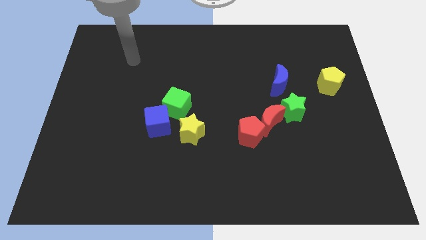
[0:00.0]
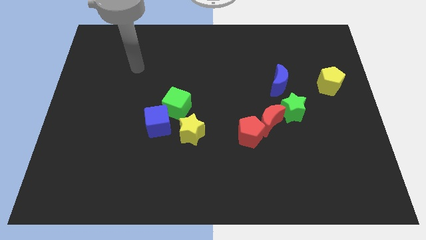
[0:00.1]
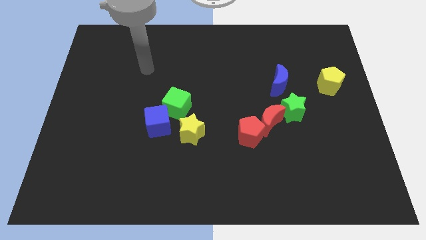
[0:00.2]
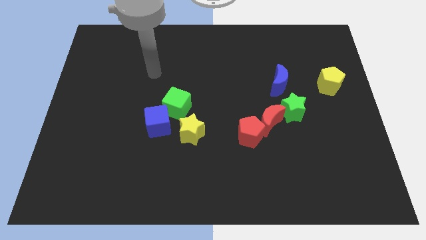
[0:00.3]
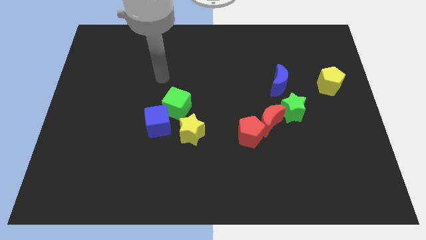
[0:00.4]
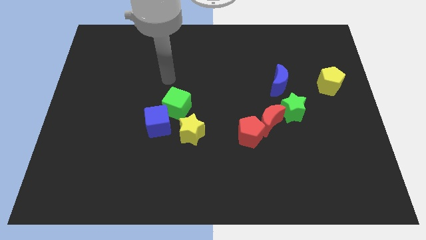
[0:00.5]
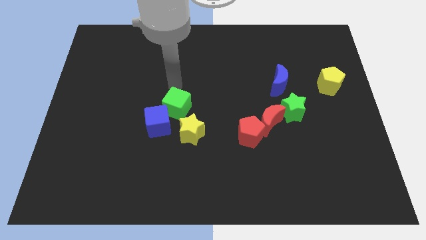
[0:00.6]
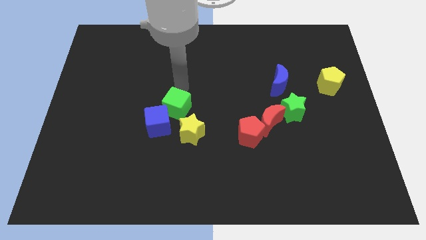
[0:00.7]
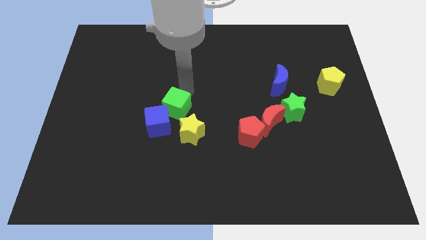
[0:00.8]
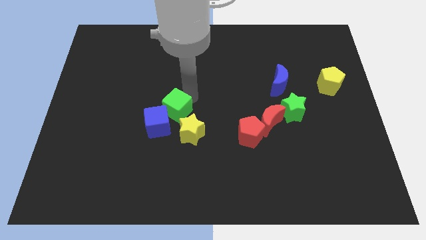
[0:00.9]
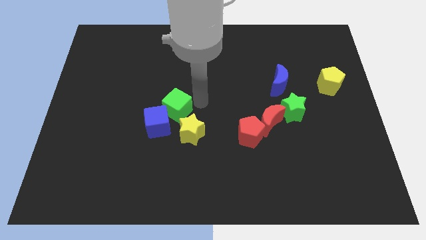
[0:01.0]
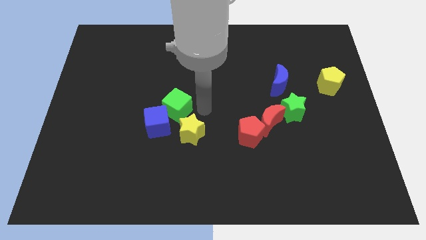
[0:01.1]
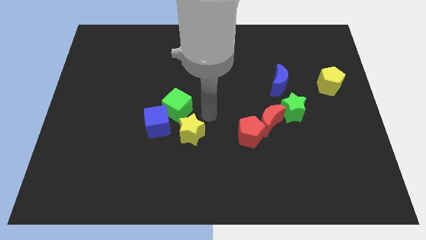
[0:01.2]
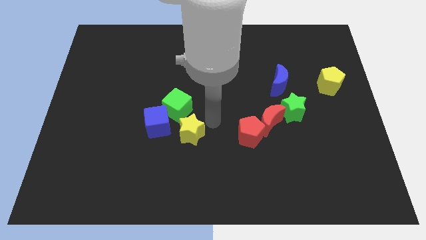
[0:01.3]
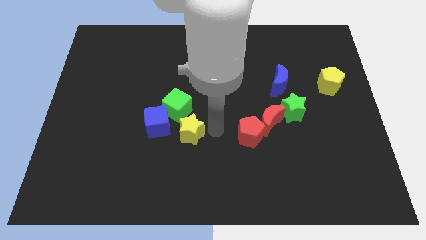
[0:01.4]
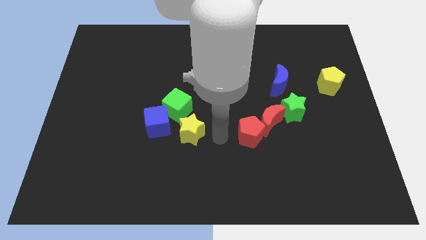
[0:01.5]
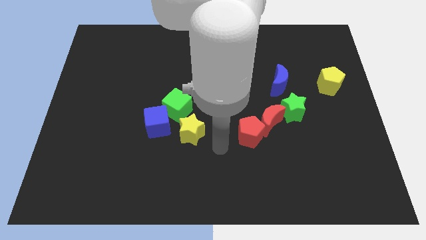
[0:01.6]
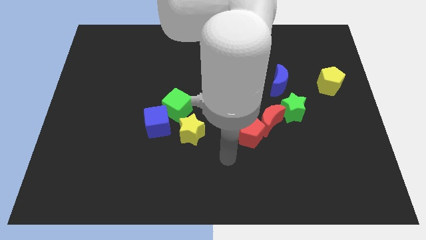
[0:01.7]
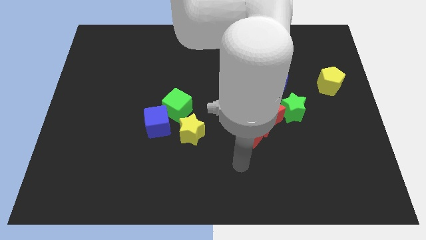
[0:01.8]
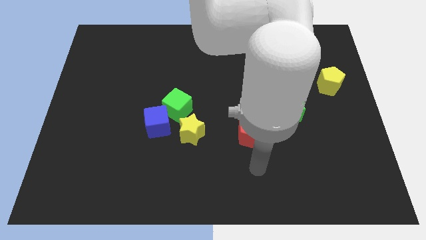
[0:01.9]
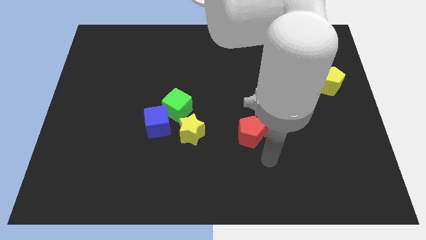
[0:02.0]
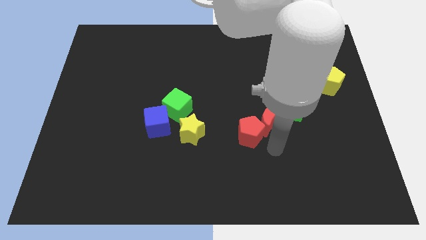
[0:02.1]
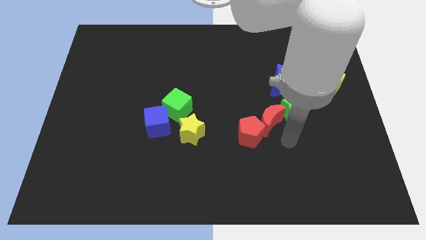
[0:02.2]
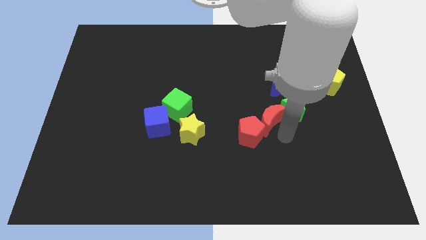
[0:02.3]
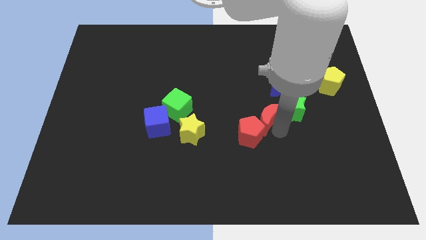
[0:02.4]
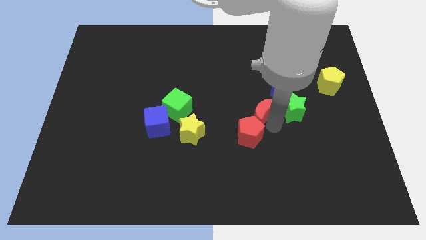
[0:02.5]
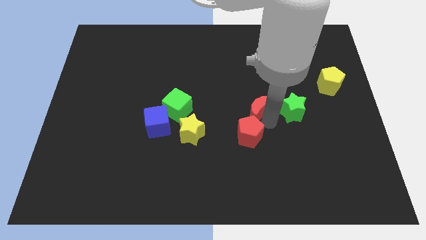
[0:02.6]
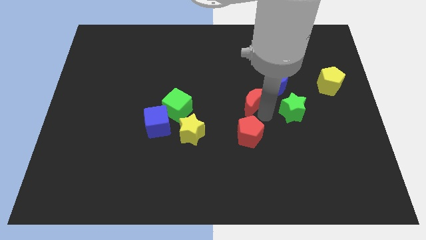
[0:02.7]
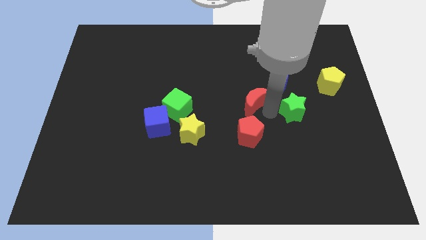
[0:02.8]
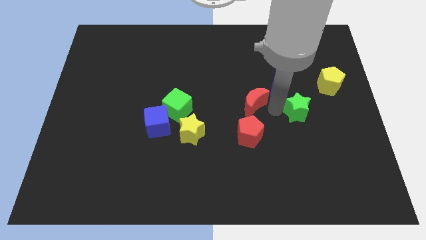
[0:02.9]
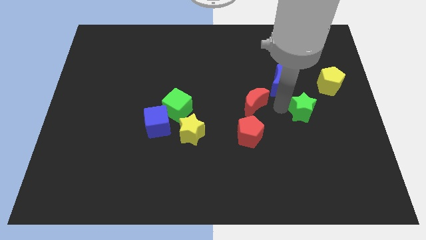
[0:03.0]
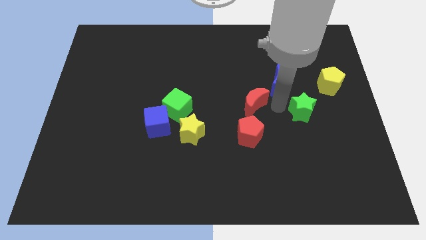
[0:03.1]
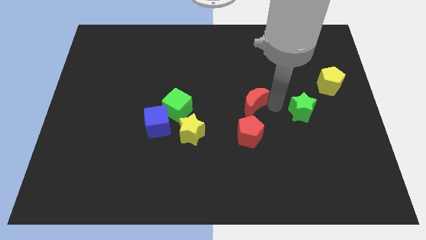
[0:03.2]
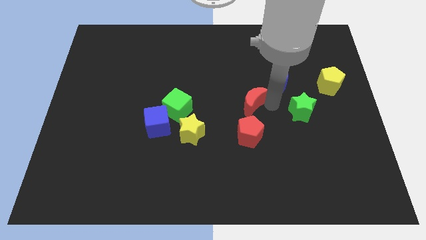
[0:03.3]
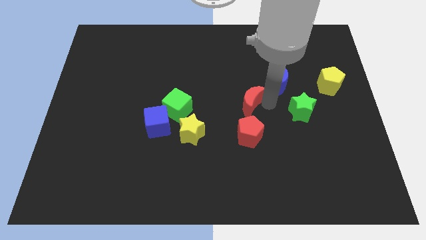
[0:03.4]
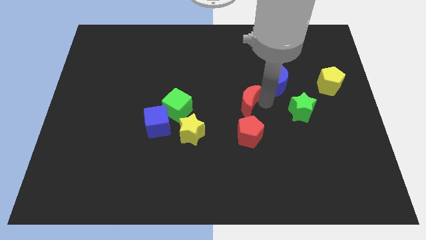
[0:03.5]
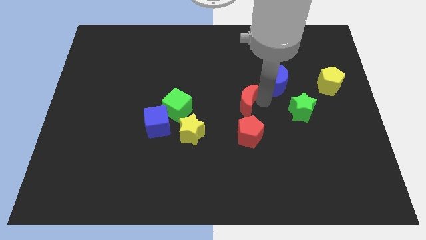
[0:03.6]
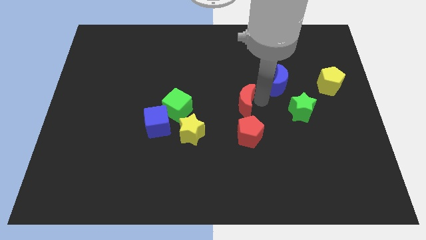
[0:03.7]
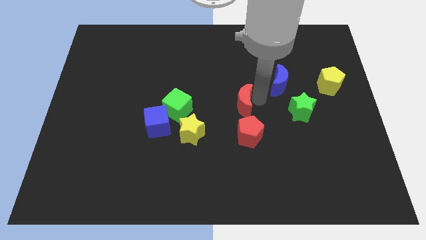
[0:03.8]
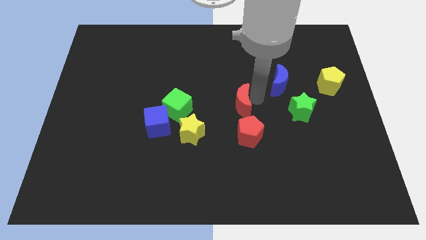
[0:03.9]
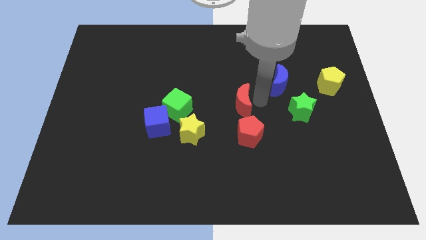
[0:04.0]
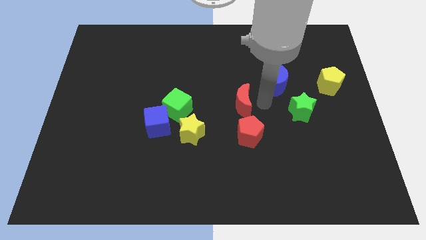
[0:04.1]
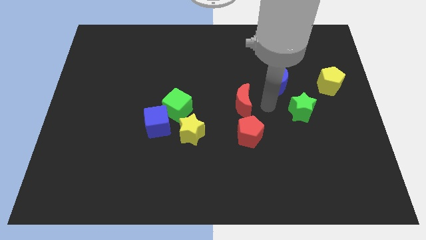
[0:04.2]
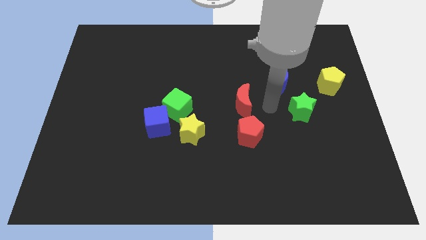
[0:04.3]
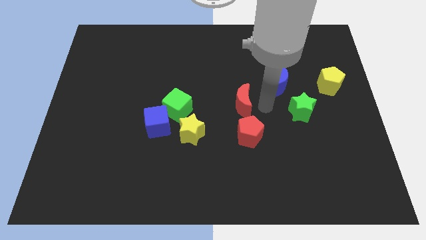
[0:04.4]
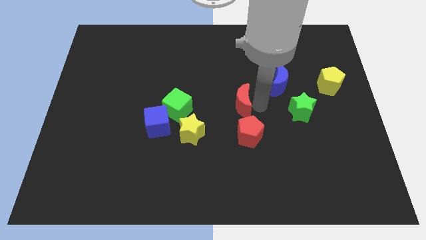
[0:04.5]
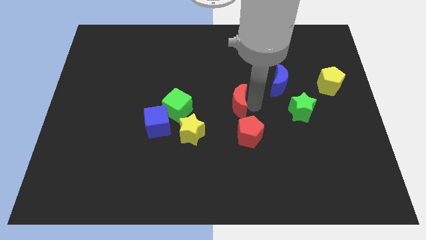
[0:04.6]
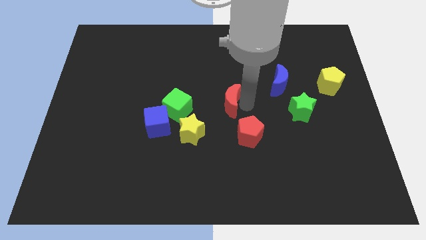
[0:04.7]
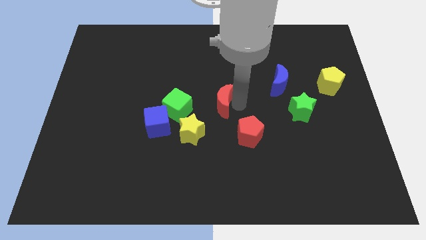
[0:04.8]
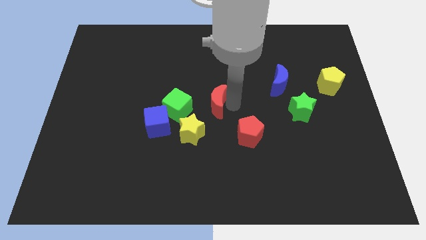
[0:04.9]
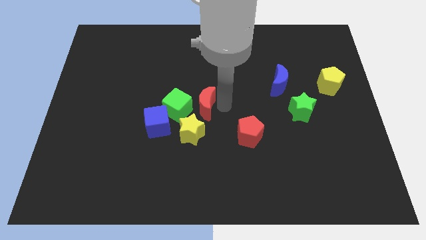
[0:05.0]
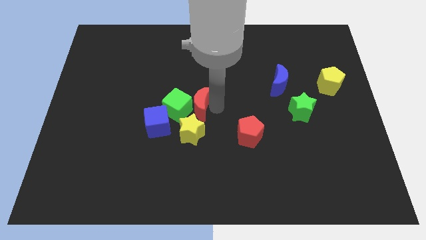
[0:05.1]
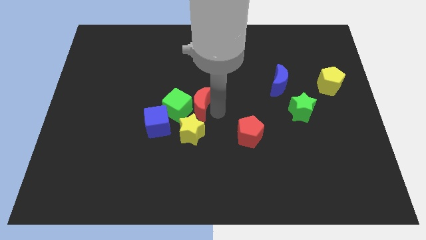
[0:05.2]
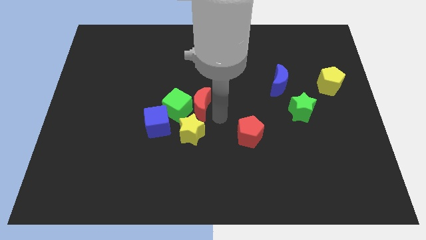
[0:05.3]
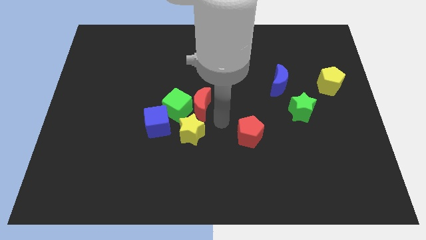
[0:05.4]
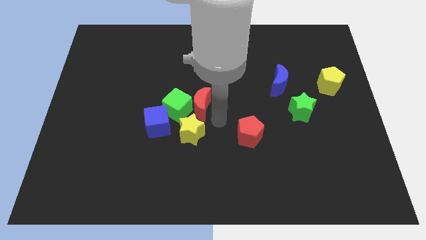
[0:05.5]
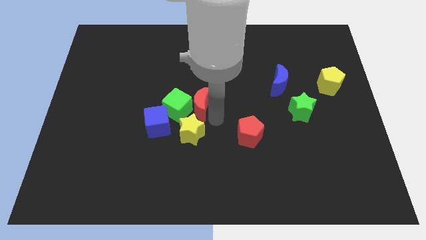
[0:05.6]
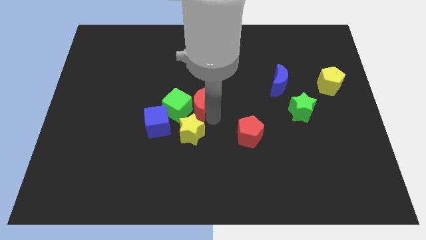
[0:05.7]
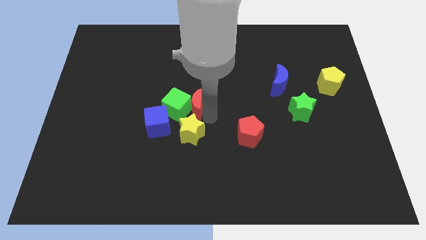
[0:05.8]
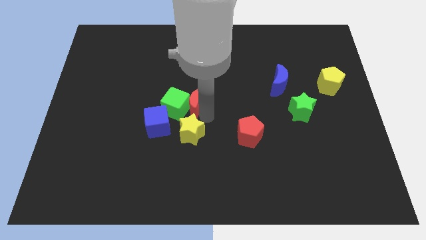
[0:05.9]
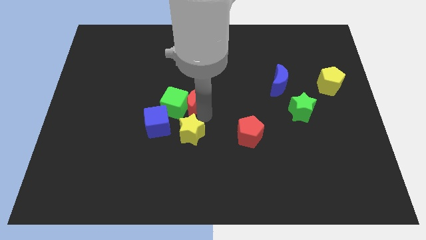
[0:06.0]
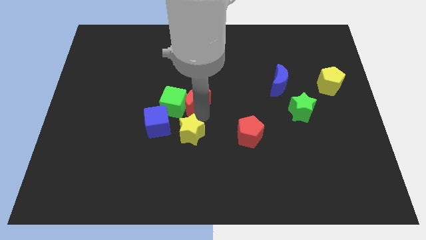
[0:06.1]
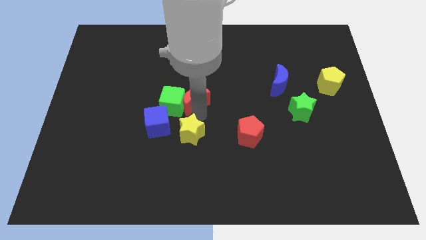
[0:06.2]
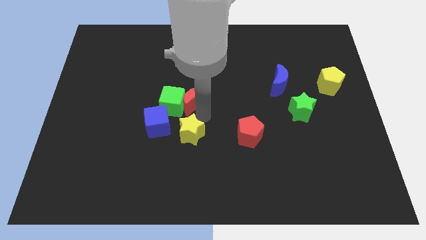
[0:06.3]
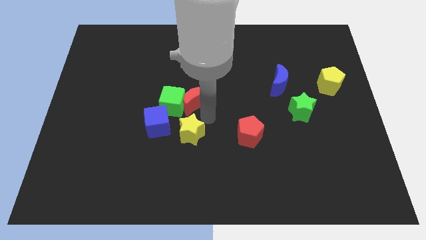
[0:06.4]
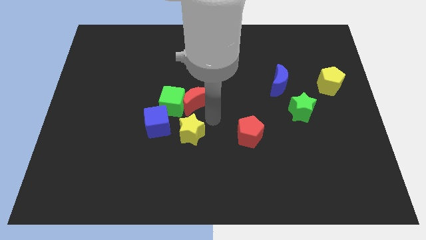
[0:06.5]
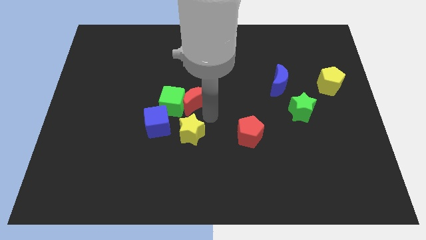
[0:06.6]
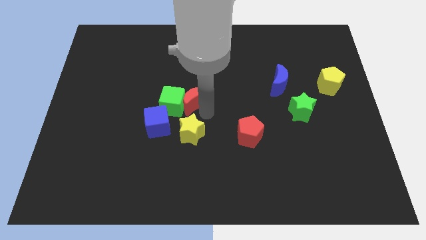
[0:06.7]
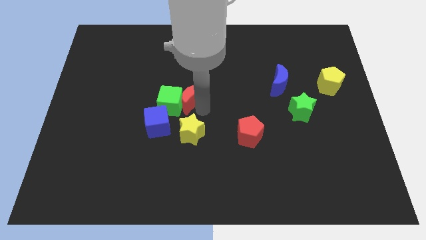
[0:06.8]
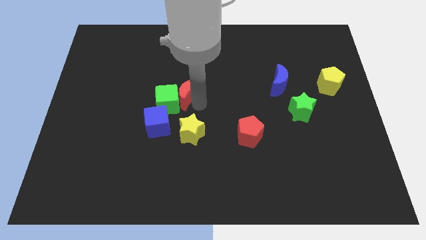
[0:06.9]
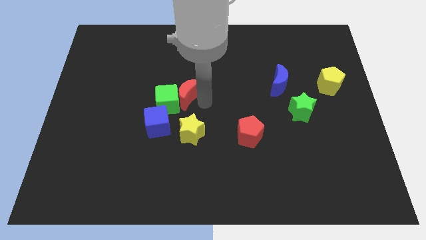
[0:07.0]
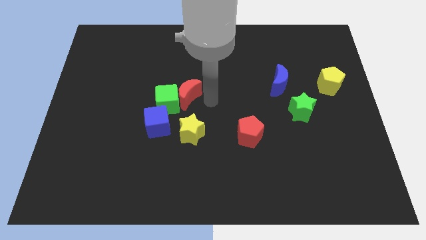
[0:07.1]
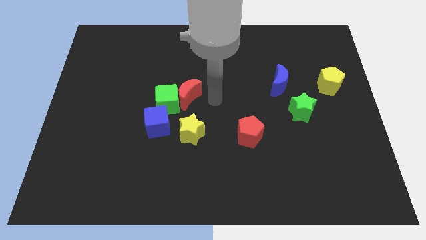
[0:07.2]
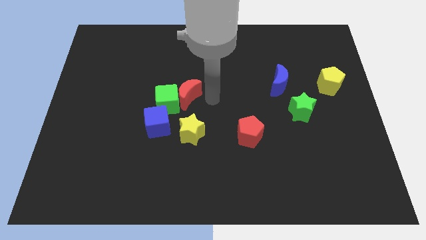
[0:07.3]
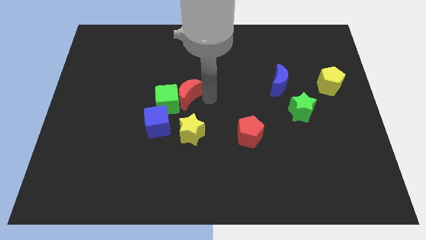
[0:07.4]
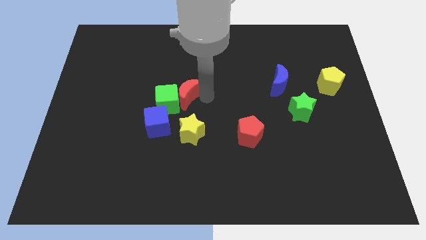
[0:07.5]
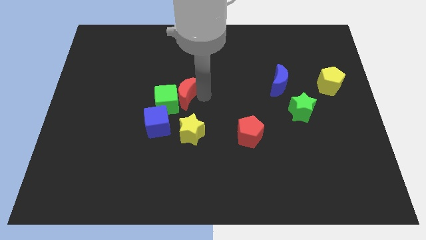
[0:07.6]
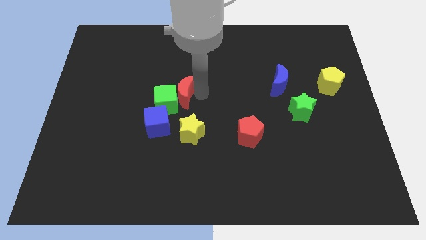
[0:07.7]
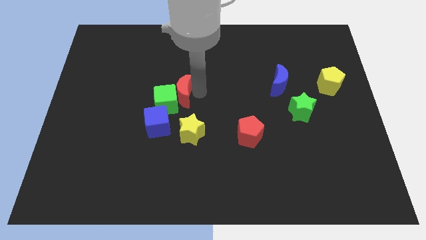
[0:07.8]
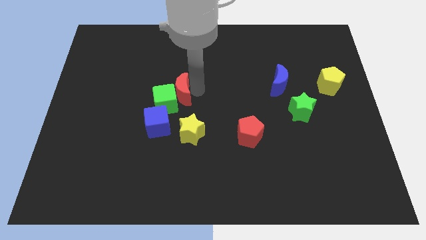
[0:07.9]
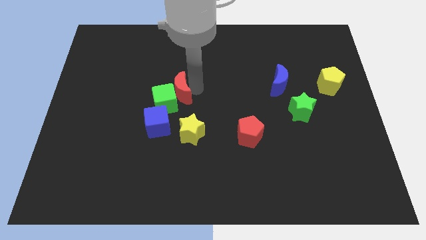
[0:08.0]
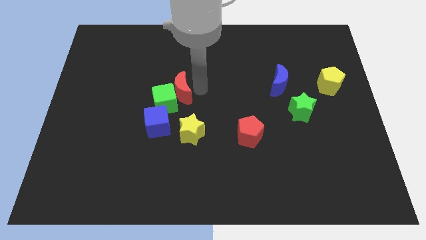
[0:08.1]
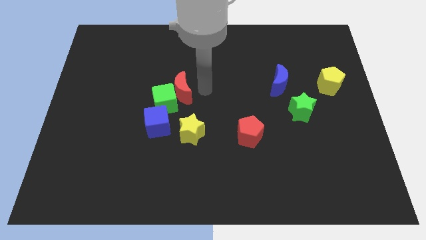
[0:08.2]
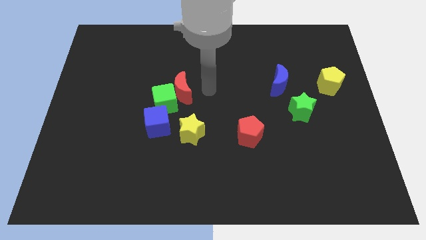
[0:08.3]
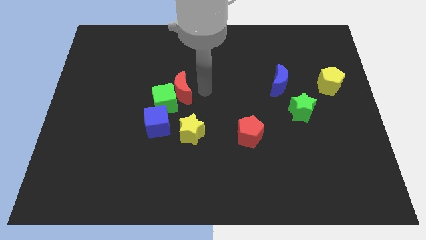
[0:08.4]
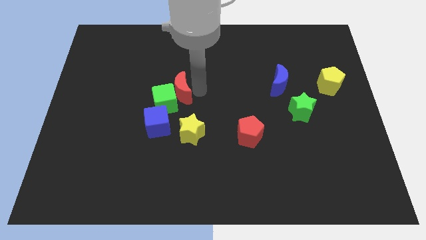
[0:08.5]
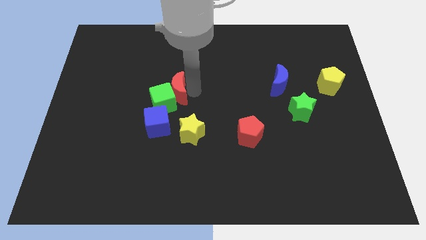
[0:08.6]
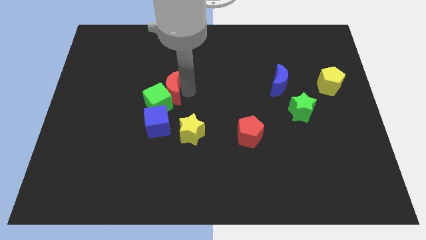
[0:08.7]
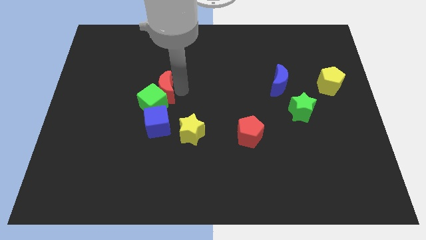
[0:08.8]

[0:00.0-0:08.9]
slide the red moon to the left
